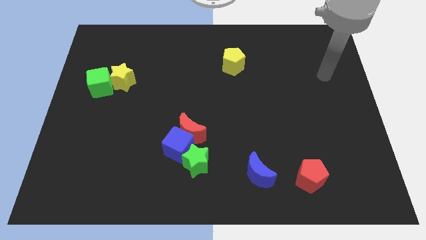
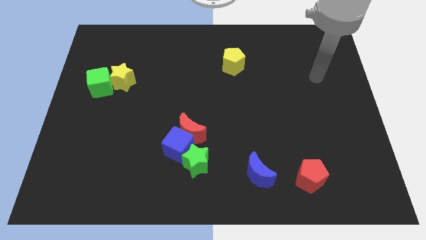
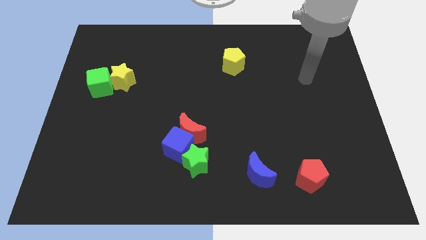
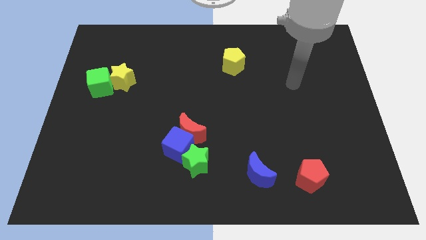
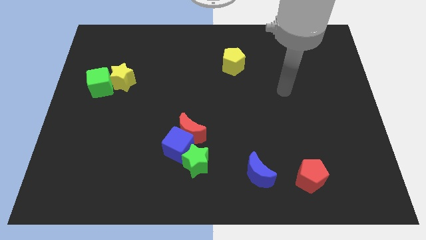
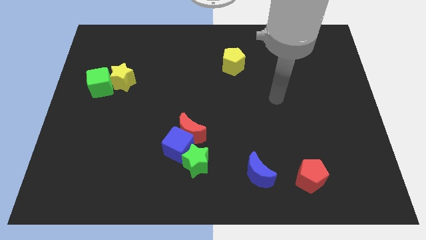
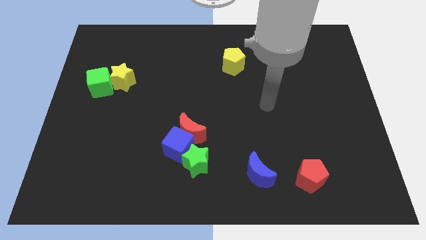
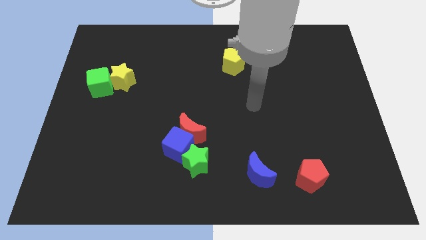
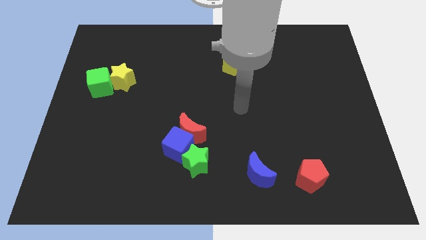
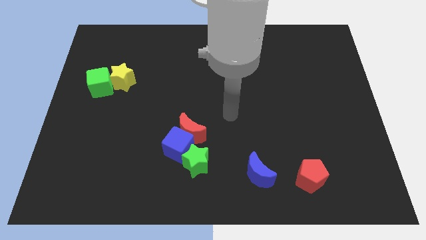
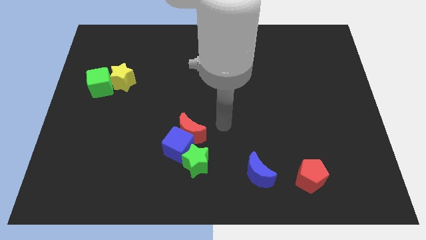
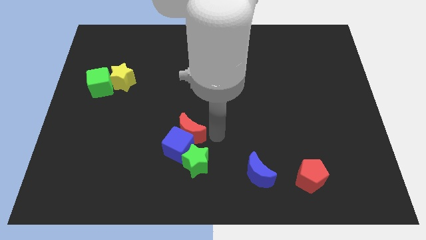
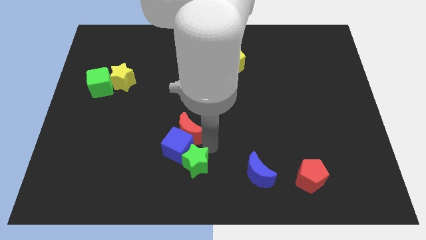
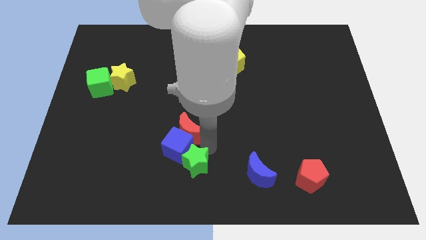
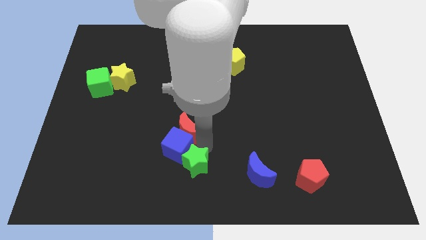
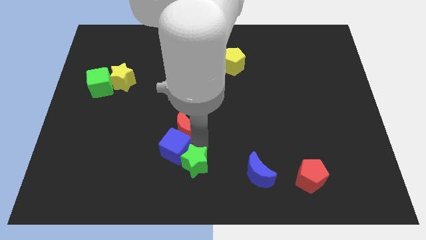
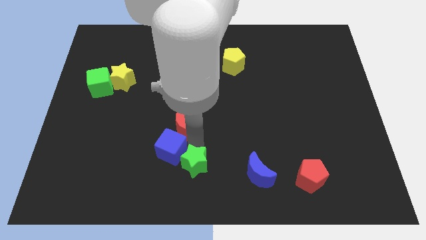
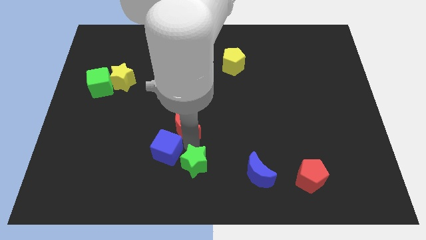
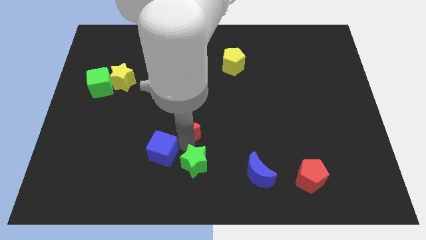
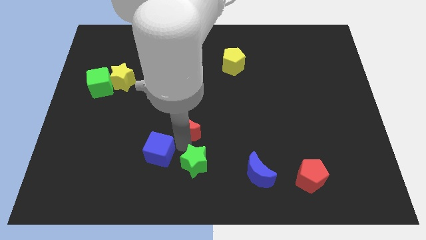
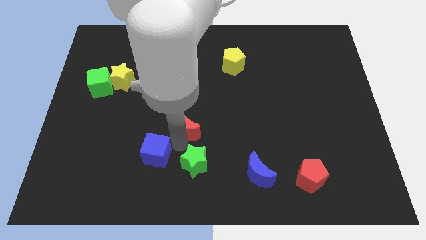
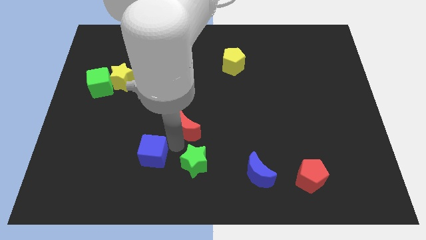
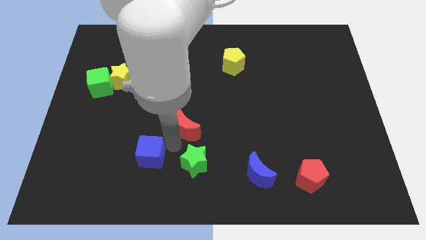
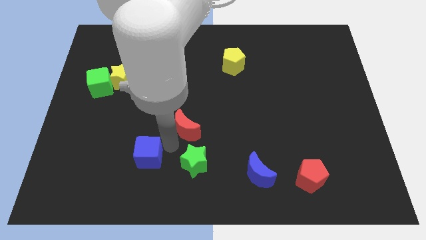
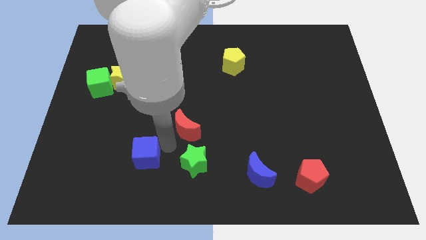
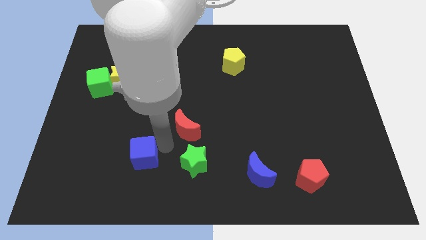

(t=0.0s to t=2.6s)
separate the blue cube from the red moon and green star

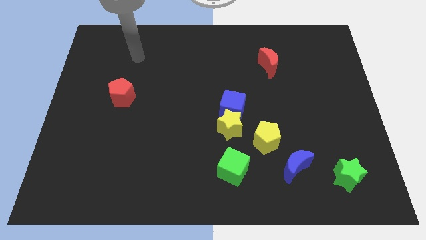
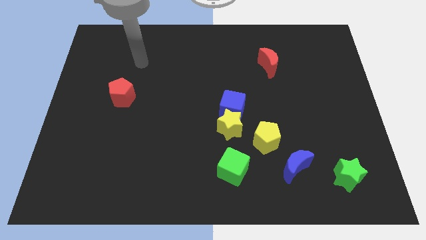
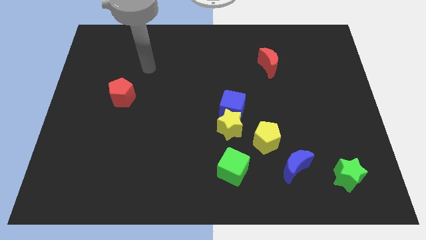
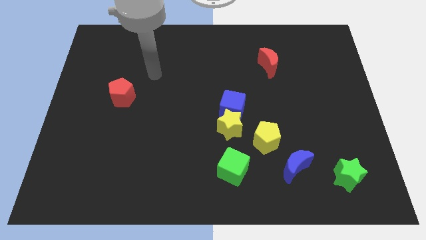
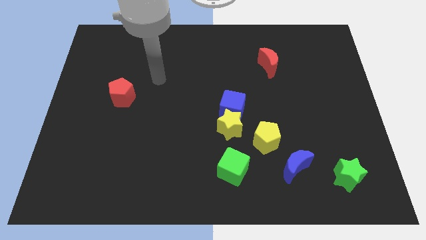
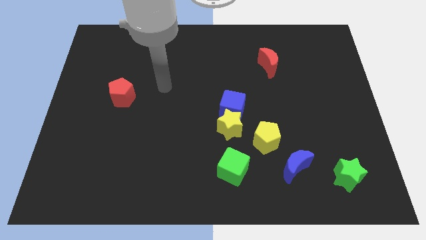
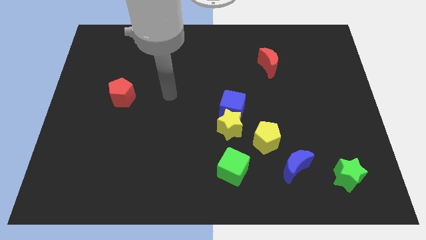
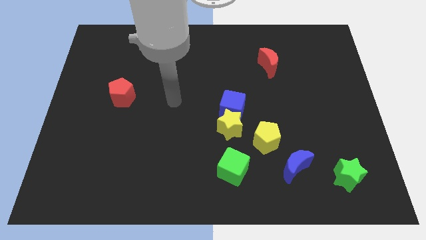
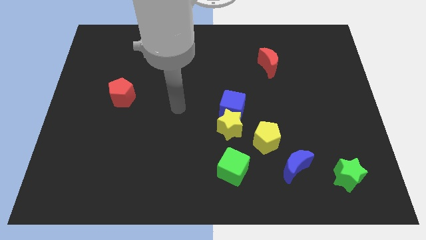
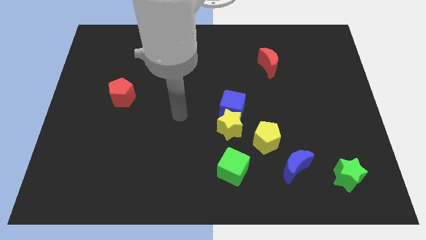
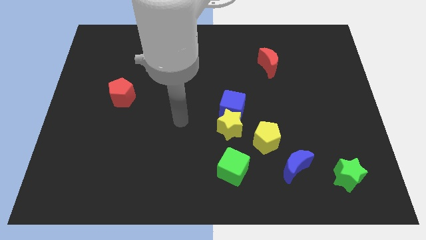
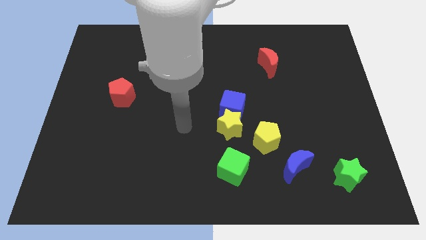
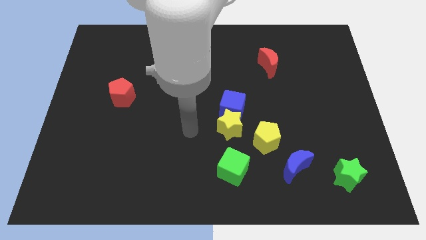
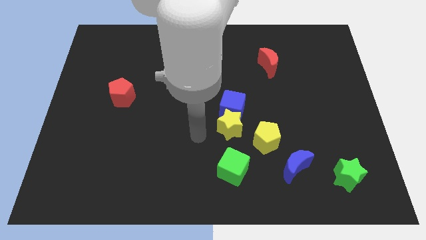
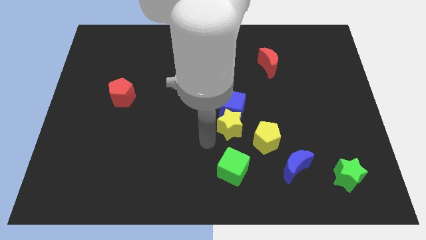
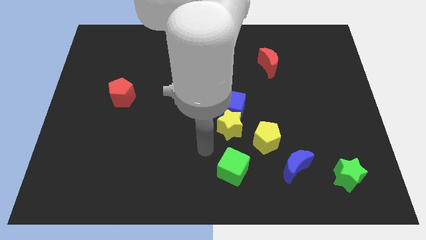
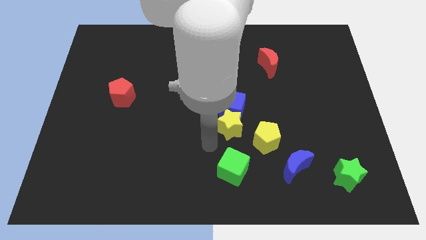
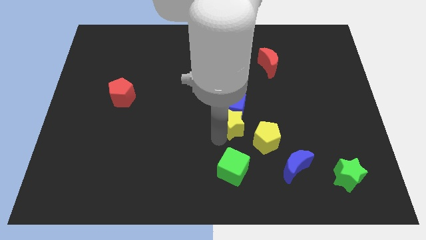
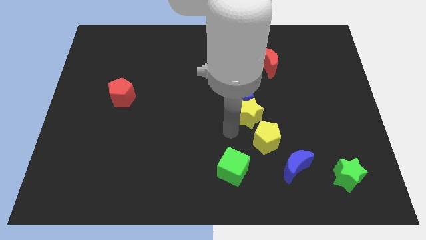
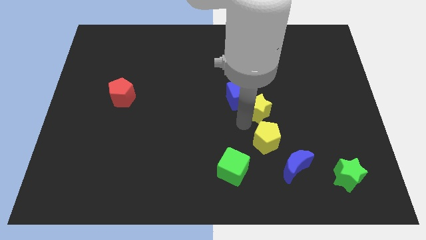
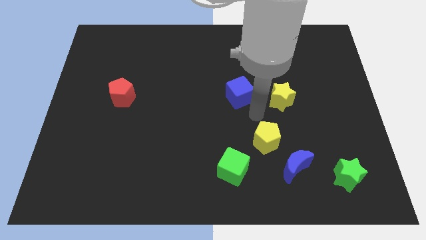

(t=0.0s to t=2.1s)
move the blue cube away from the yellow star

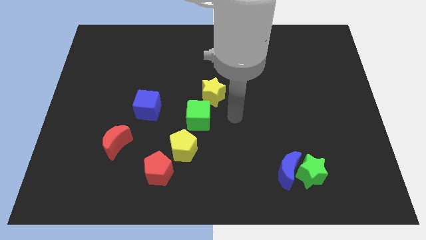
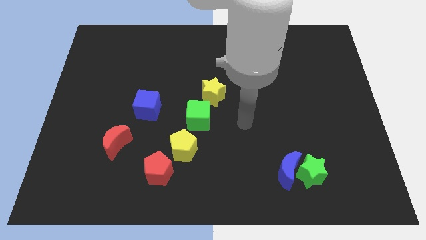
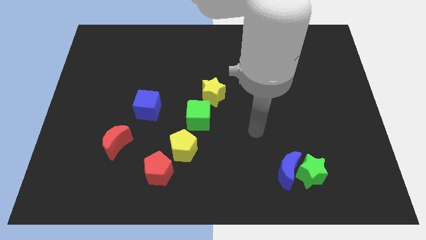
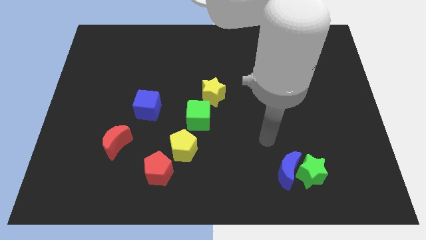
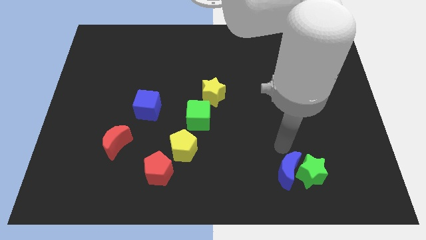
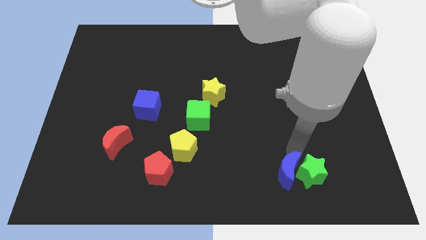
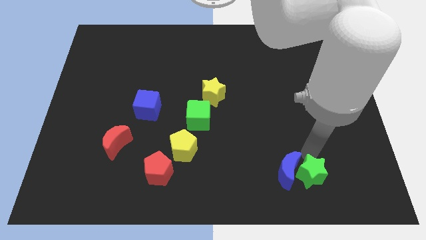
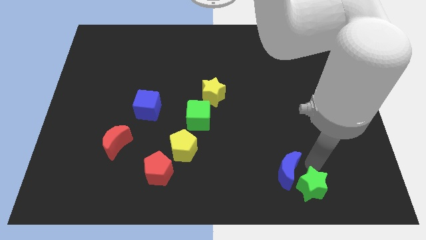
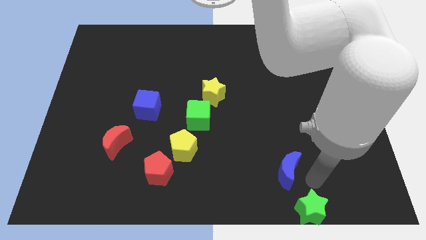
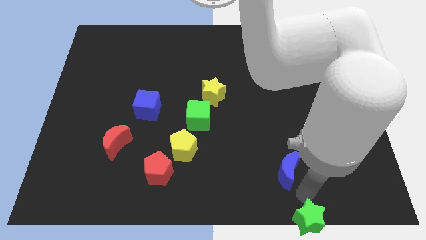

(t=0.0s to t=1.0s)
move the blue moon away from the green star

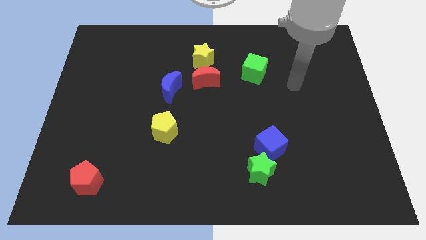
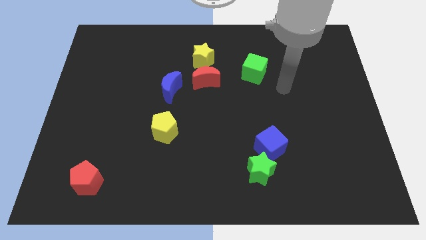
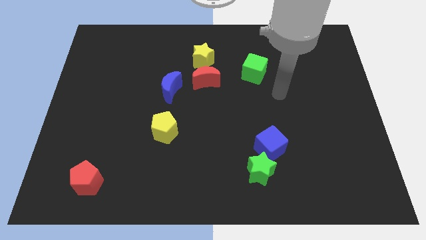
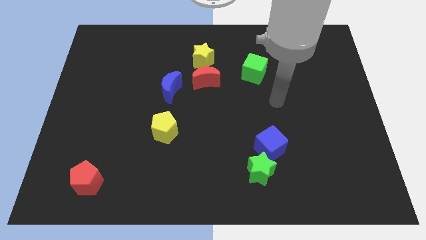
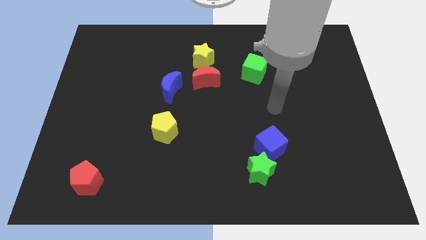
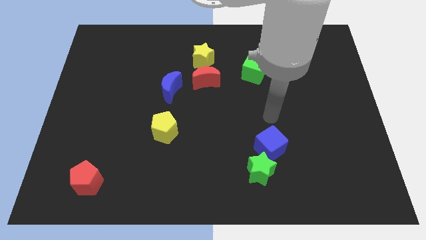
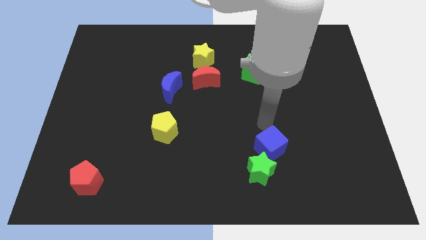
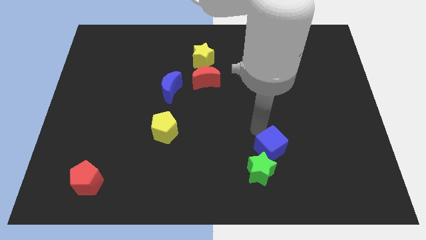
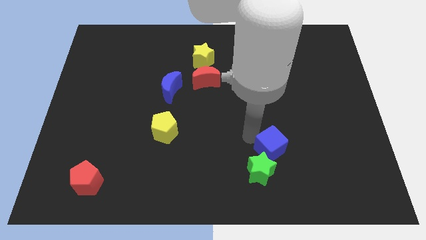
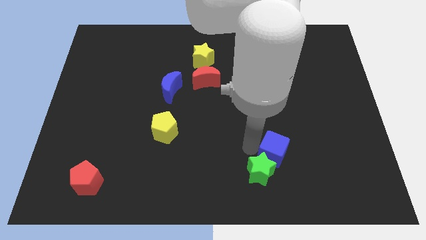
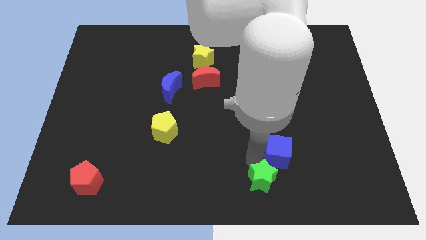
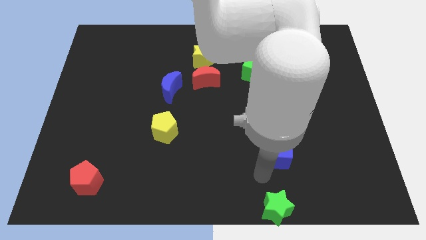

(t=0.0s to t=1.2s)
separate the blue cube from the green star

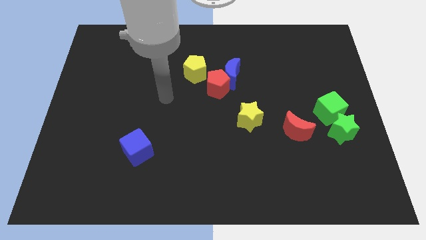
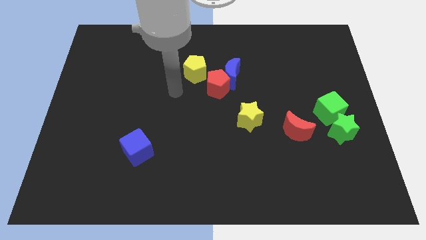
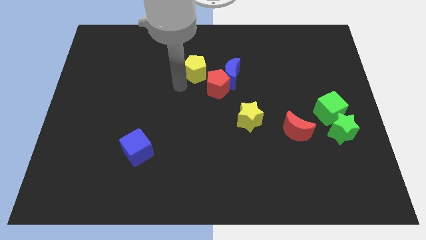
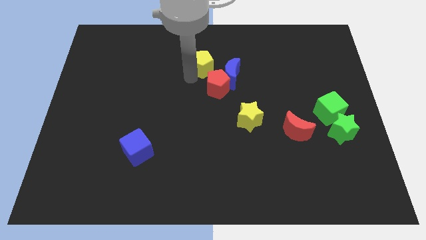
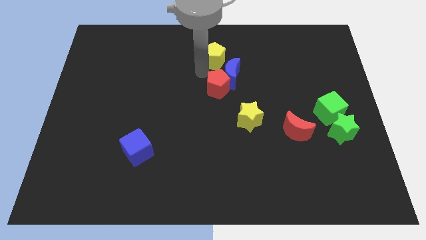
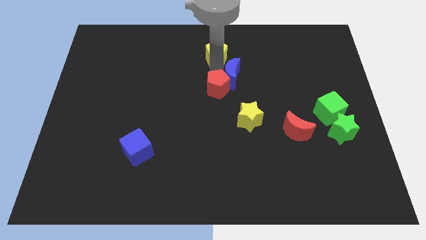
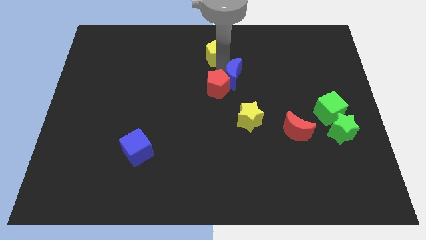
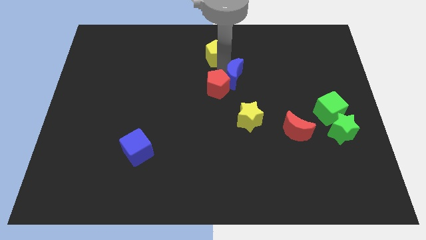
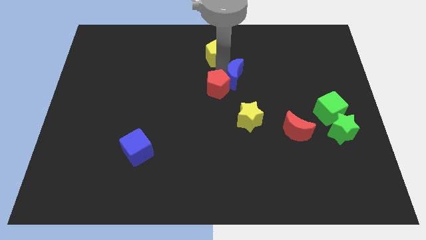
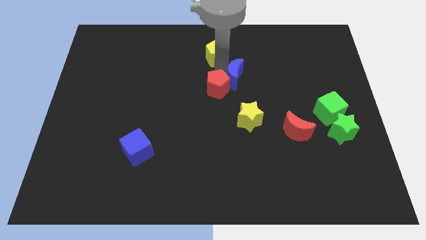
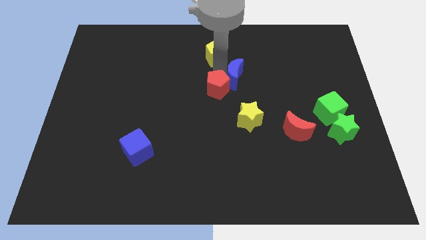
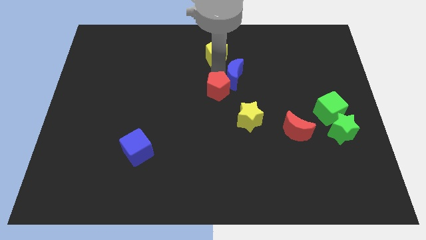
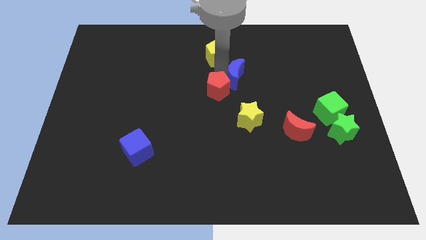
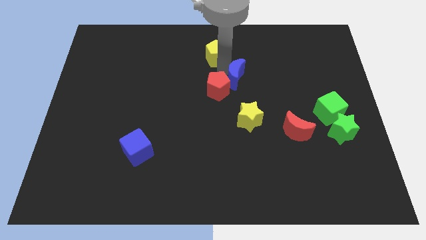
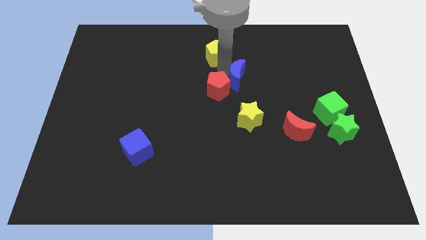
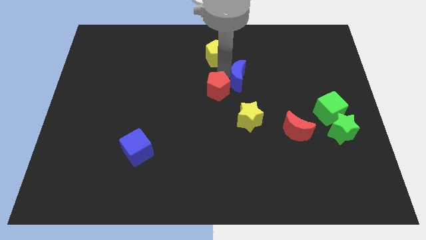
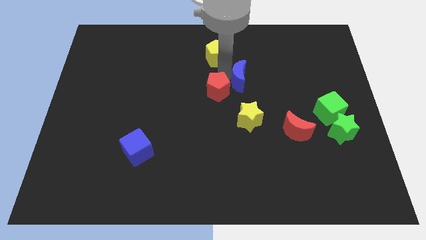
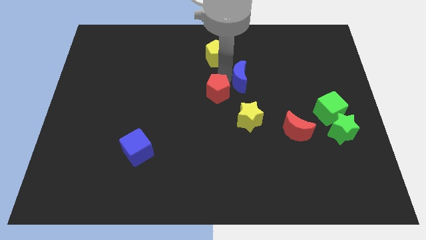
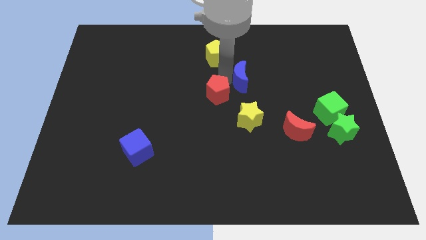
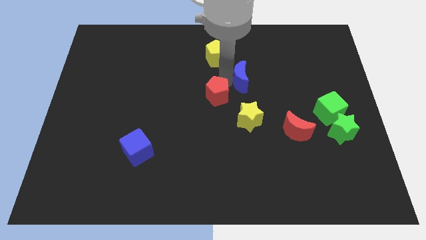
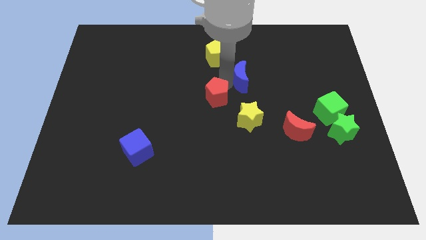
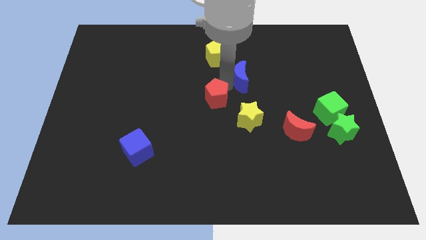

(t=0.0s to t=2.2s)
pull the red pentagon apart from the blue moon and yellow pentagon

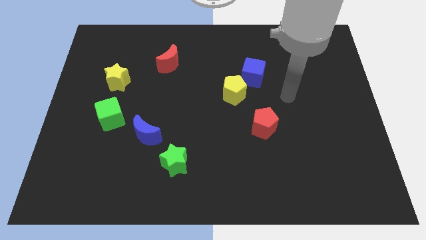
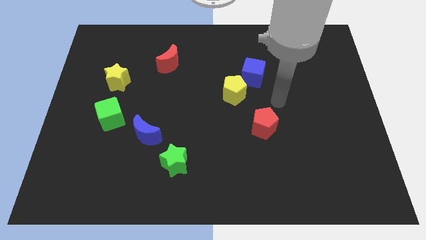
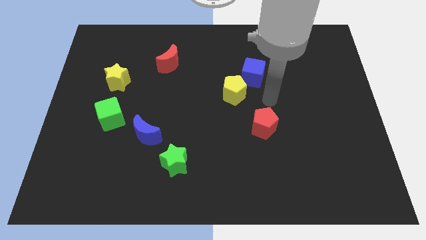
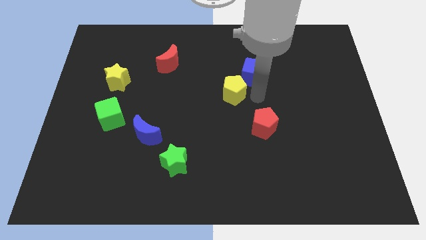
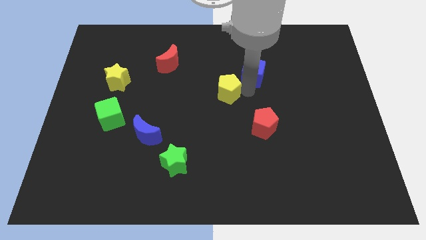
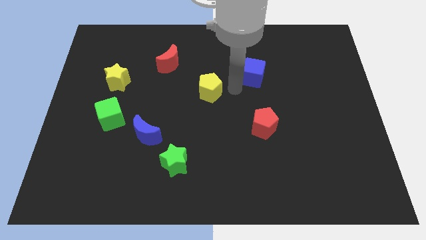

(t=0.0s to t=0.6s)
pull the blue cube apart from the yellow pentagon
